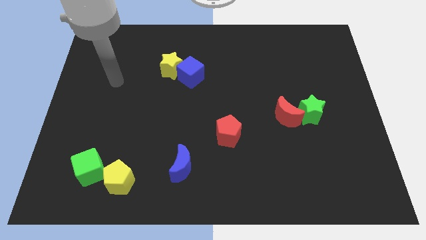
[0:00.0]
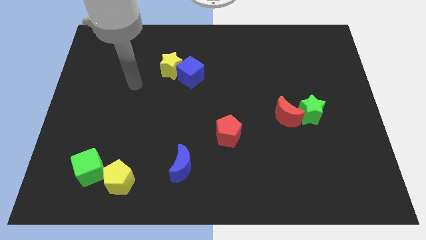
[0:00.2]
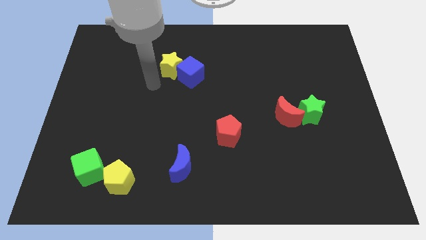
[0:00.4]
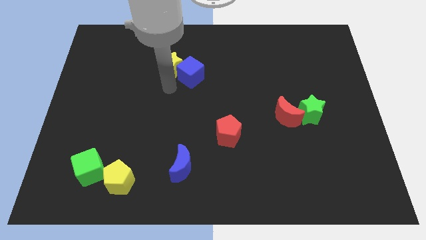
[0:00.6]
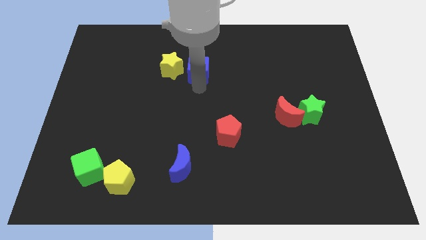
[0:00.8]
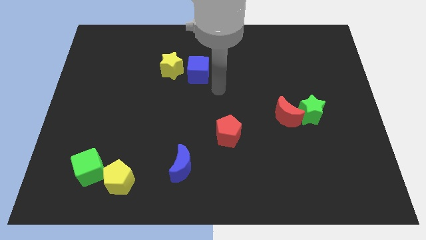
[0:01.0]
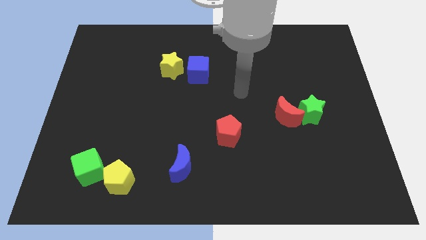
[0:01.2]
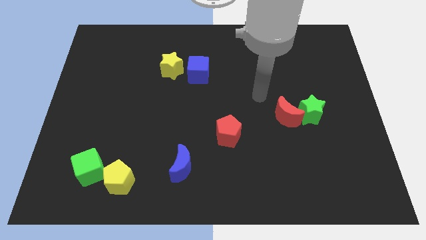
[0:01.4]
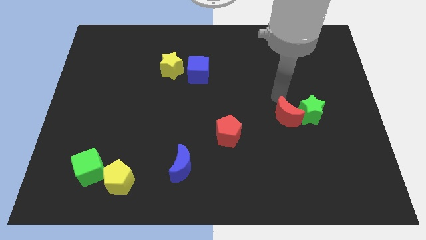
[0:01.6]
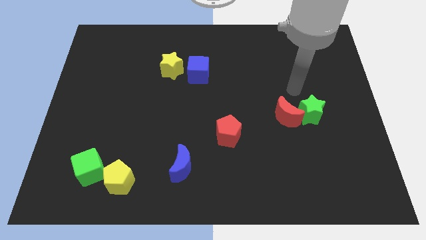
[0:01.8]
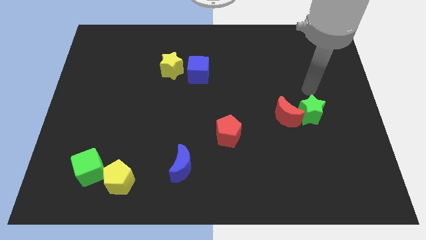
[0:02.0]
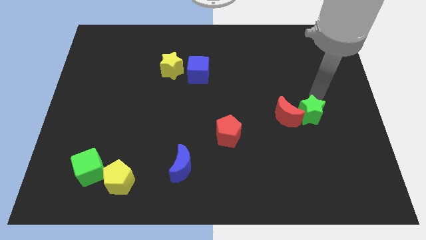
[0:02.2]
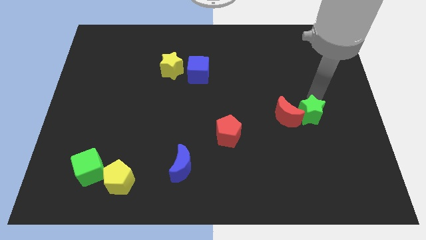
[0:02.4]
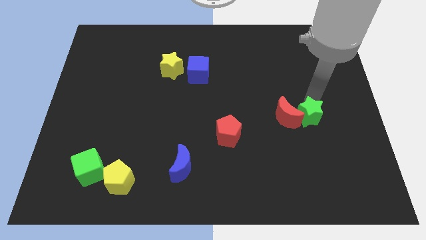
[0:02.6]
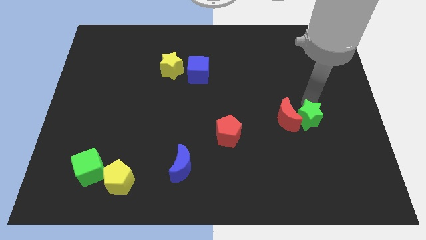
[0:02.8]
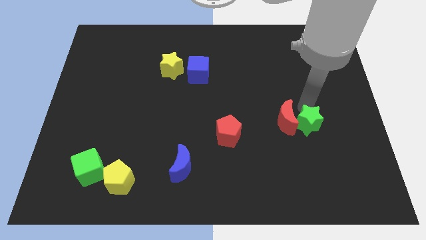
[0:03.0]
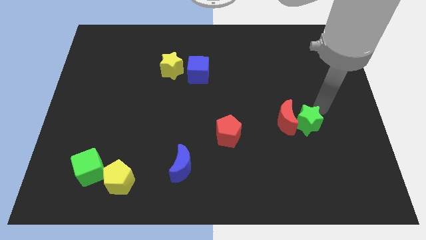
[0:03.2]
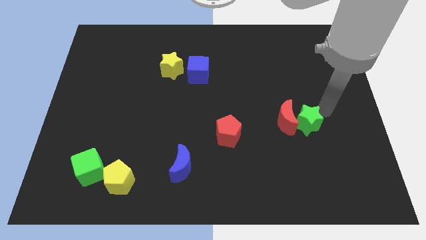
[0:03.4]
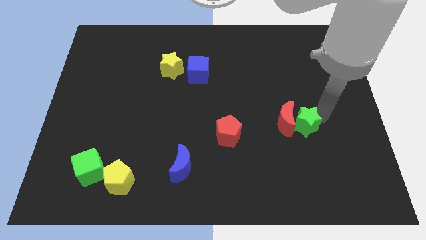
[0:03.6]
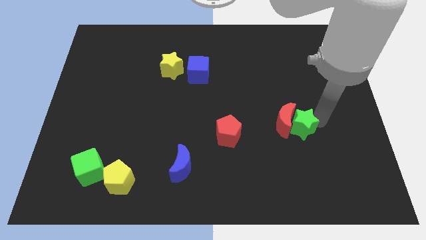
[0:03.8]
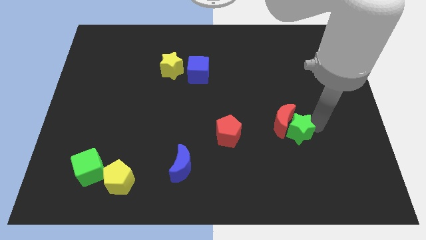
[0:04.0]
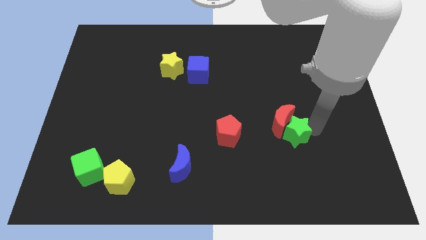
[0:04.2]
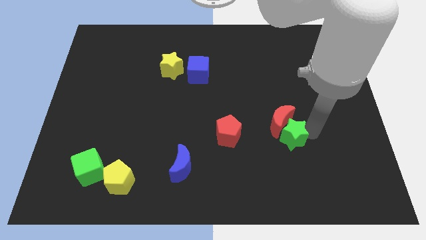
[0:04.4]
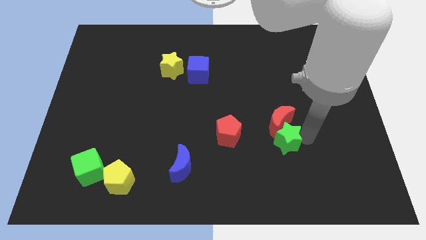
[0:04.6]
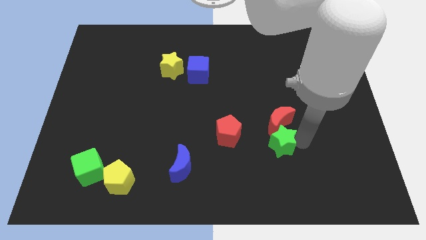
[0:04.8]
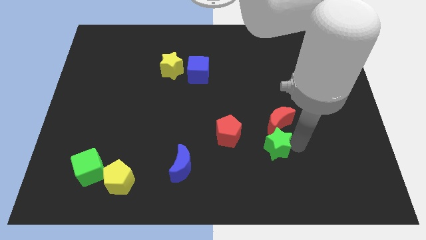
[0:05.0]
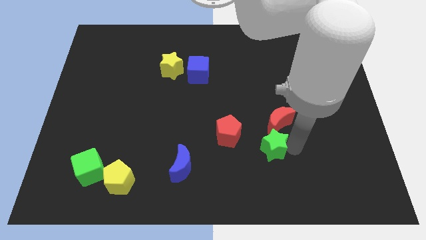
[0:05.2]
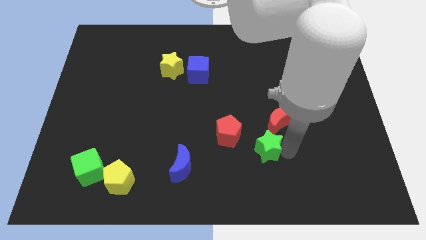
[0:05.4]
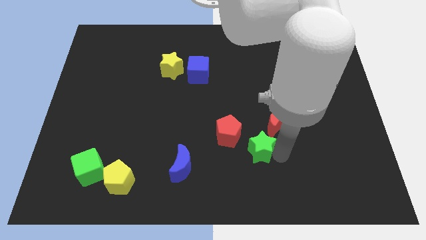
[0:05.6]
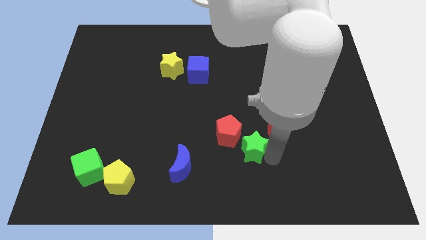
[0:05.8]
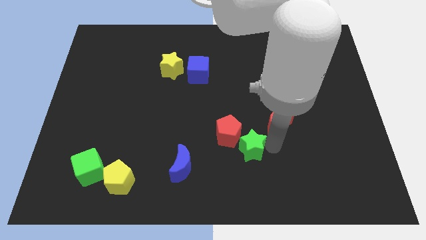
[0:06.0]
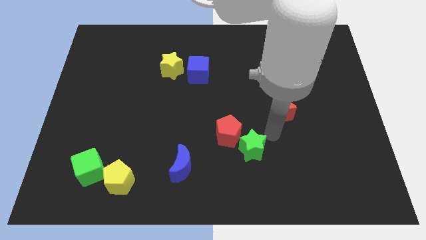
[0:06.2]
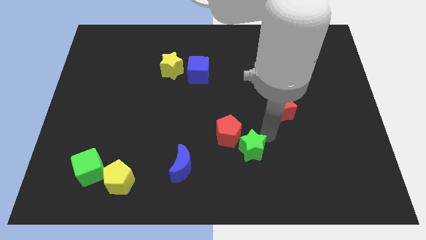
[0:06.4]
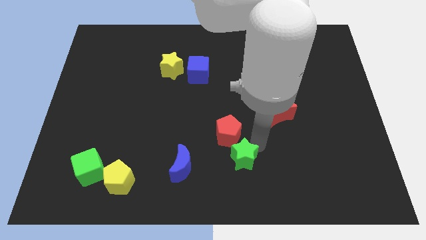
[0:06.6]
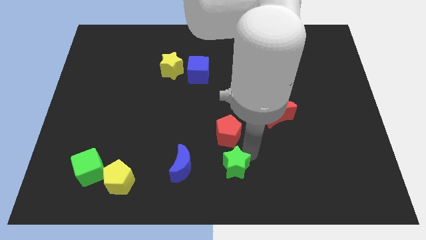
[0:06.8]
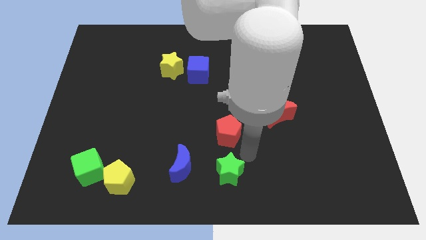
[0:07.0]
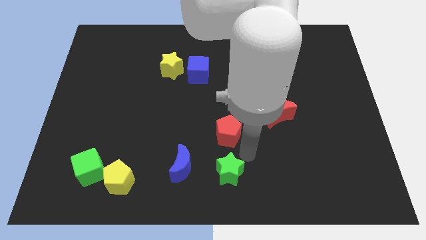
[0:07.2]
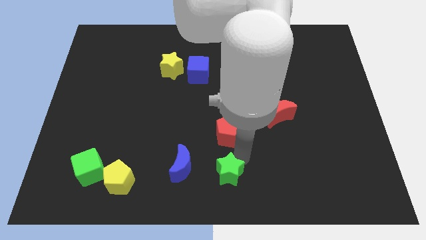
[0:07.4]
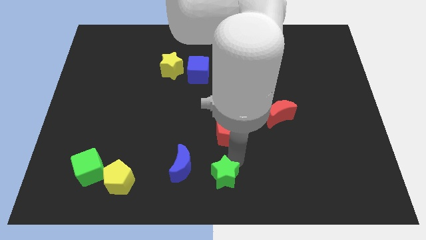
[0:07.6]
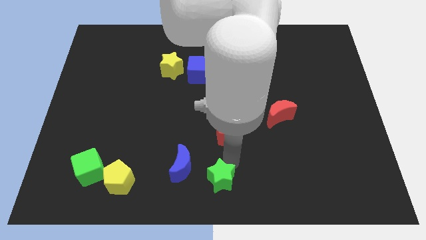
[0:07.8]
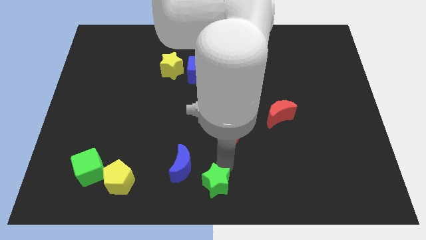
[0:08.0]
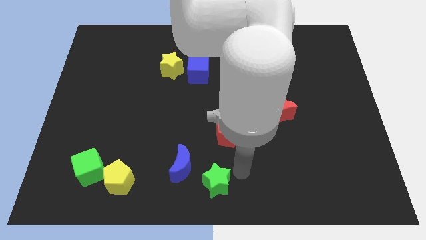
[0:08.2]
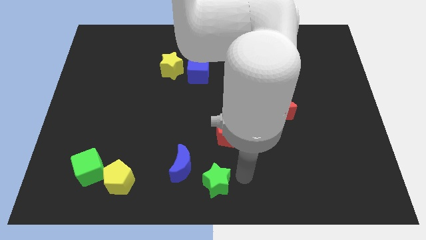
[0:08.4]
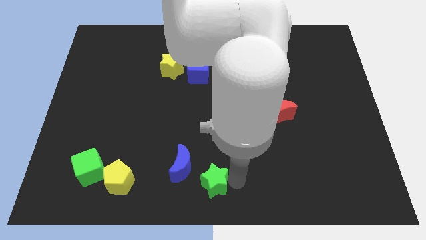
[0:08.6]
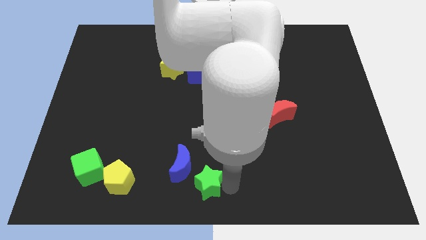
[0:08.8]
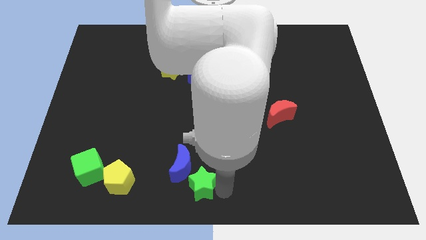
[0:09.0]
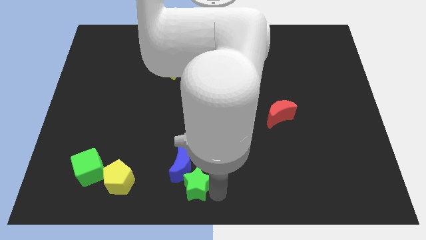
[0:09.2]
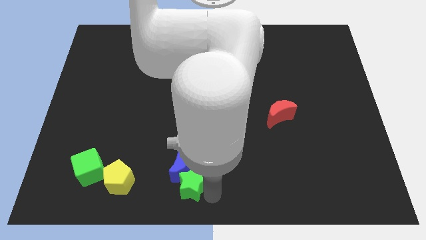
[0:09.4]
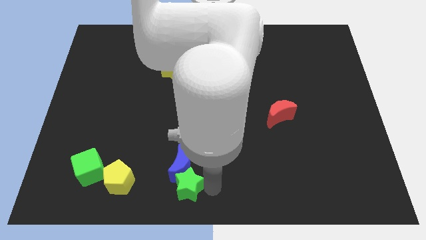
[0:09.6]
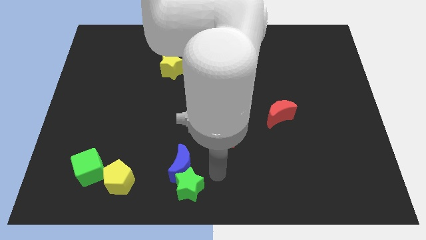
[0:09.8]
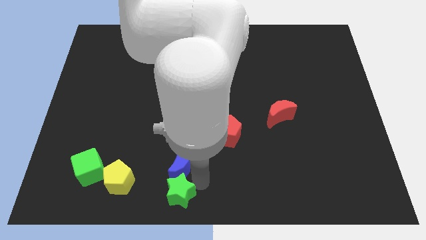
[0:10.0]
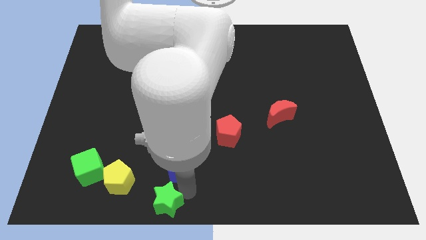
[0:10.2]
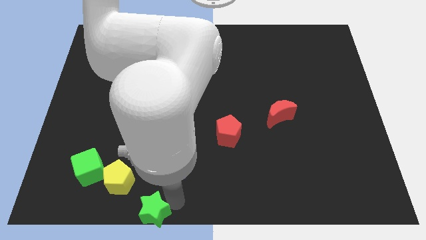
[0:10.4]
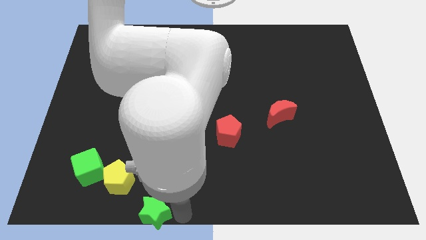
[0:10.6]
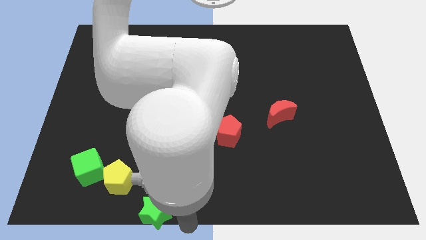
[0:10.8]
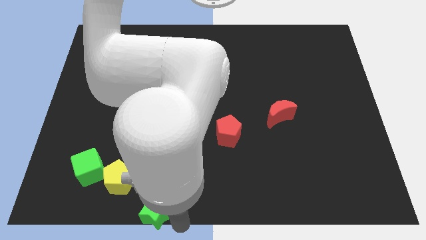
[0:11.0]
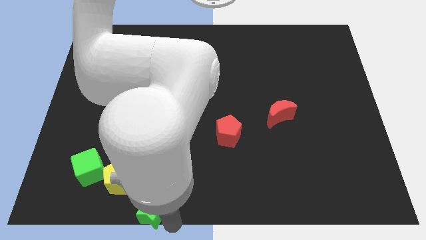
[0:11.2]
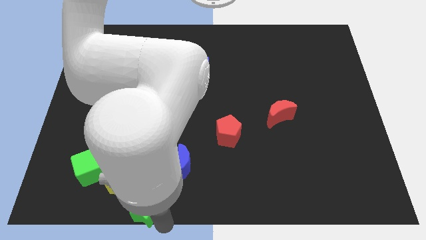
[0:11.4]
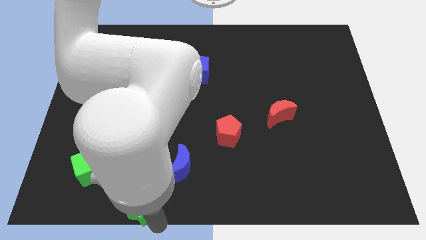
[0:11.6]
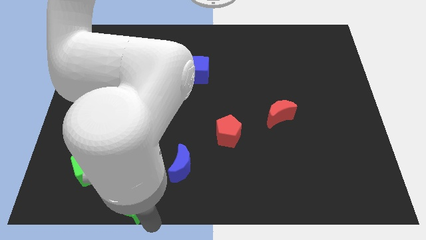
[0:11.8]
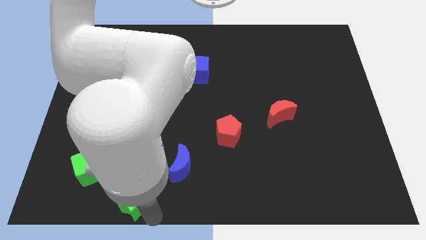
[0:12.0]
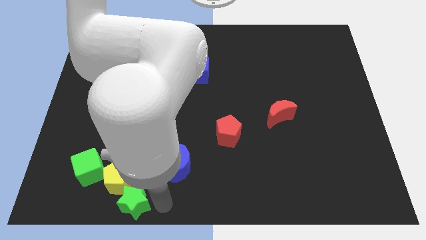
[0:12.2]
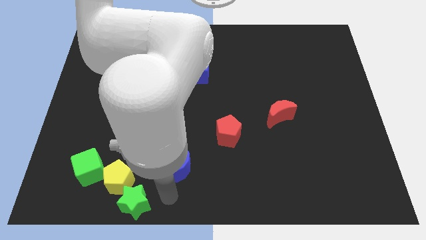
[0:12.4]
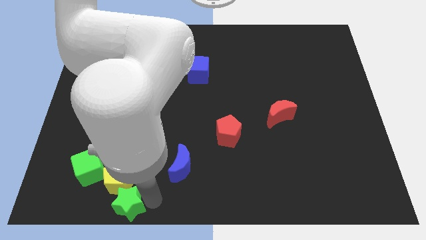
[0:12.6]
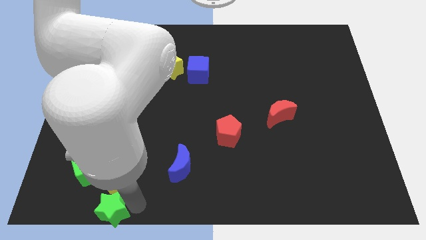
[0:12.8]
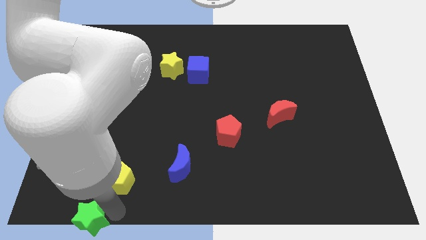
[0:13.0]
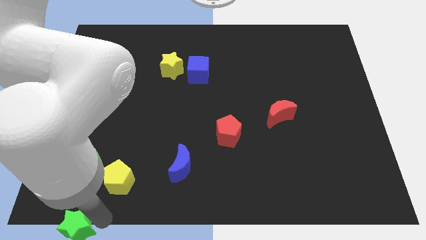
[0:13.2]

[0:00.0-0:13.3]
put the green star to the bottom left
